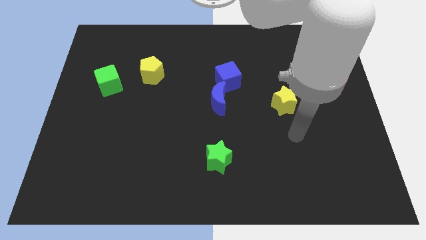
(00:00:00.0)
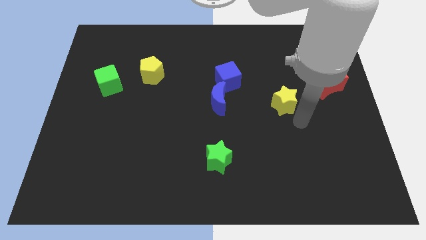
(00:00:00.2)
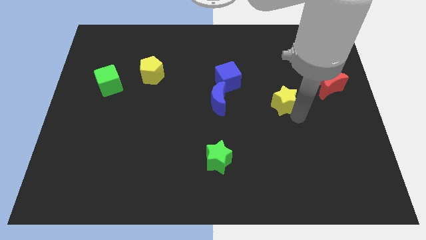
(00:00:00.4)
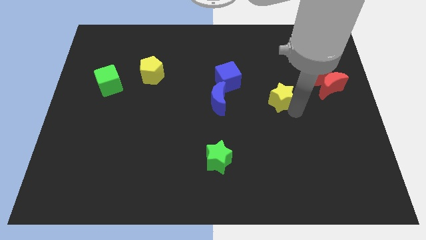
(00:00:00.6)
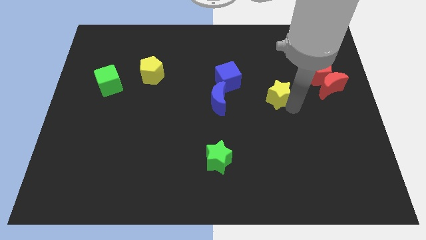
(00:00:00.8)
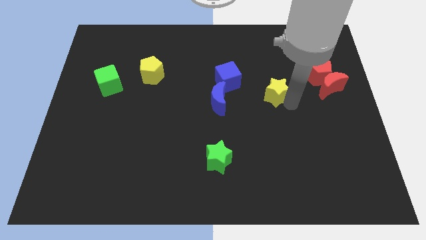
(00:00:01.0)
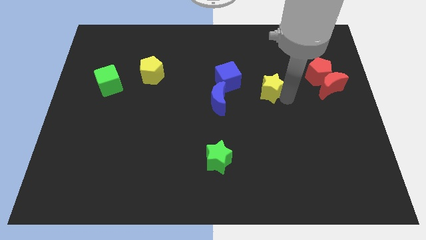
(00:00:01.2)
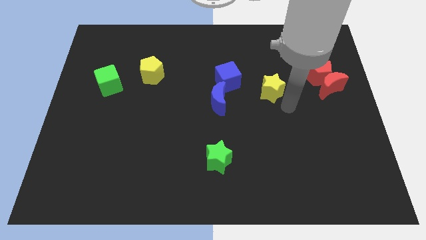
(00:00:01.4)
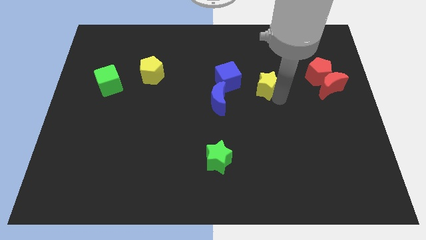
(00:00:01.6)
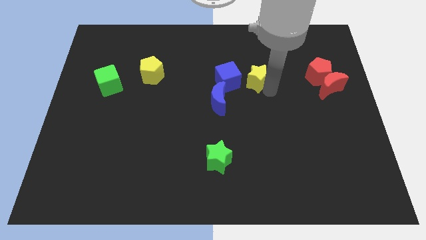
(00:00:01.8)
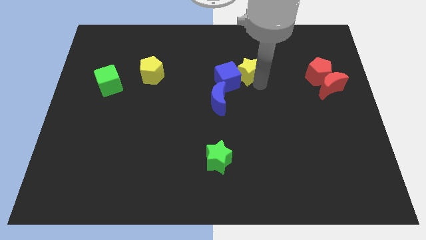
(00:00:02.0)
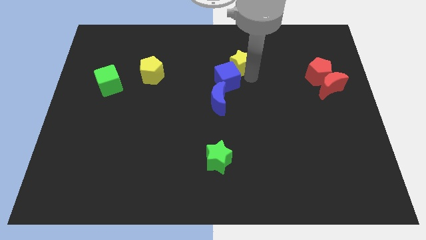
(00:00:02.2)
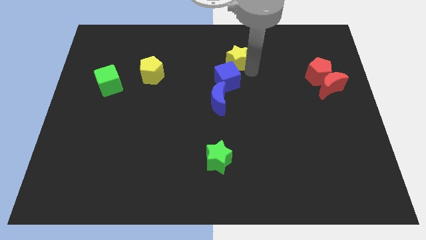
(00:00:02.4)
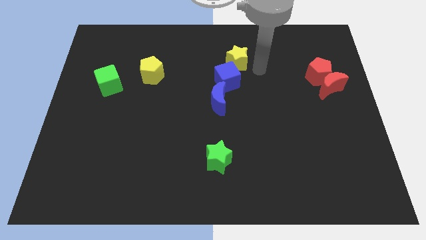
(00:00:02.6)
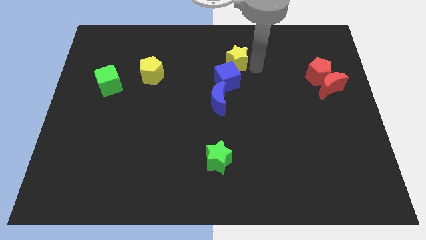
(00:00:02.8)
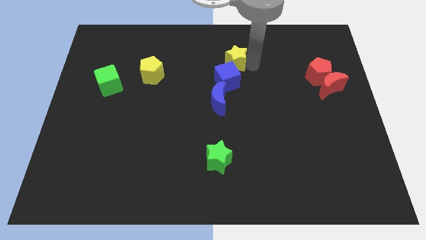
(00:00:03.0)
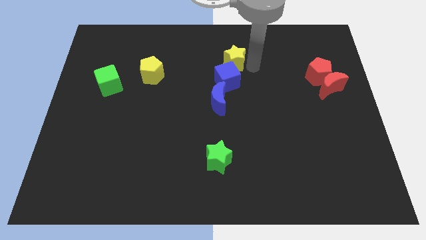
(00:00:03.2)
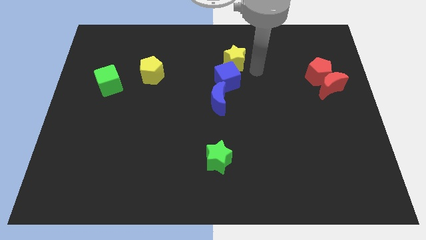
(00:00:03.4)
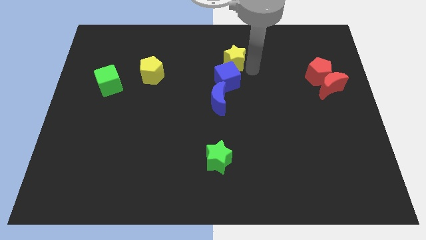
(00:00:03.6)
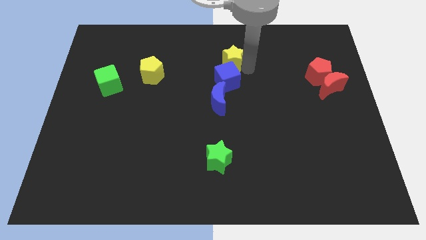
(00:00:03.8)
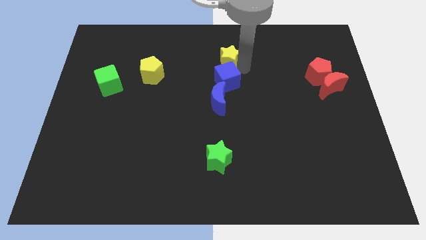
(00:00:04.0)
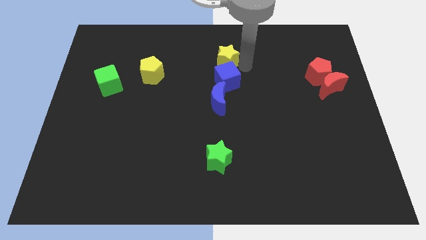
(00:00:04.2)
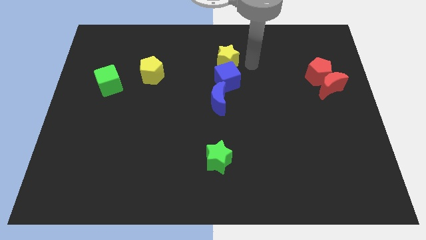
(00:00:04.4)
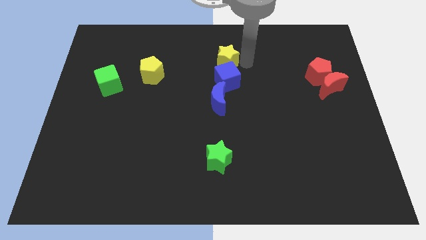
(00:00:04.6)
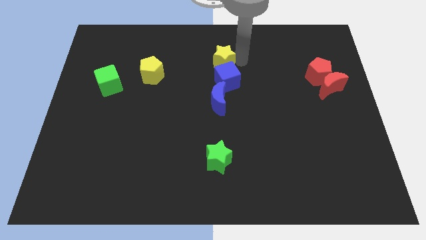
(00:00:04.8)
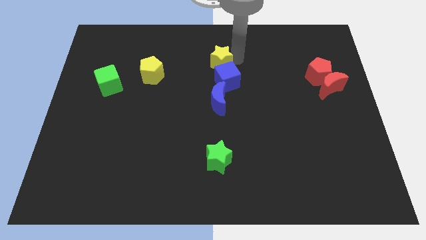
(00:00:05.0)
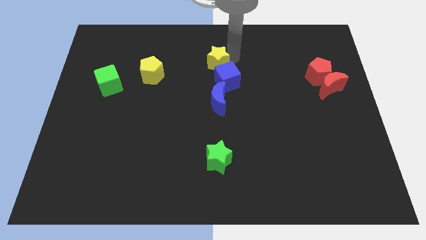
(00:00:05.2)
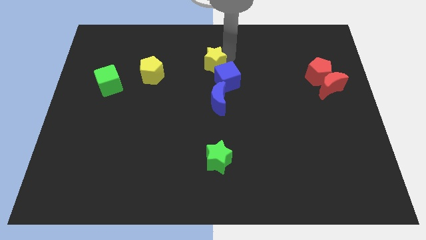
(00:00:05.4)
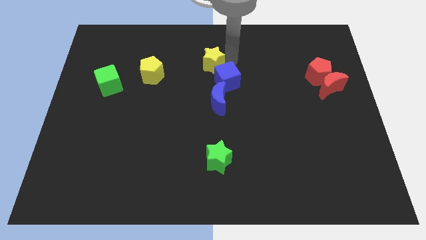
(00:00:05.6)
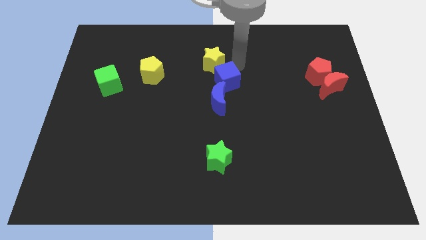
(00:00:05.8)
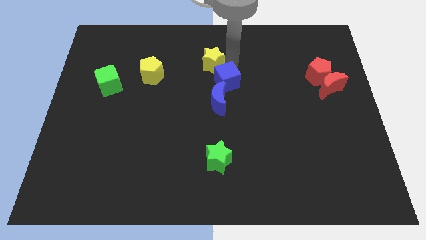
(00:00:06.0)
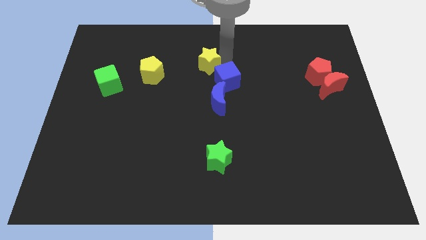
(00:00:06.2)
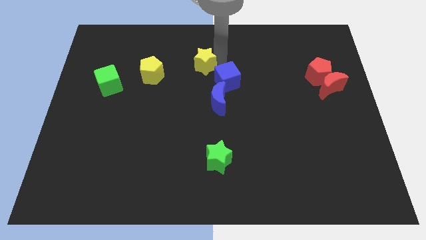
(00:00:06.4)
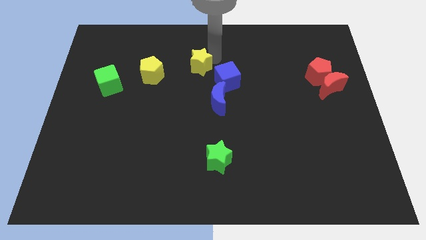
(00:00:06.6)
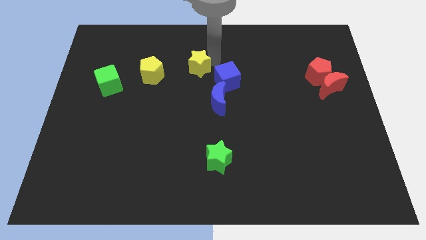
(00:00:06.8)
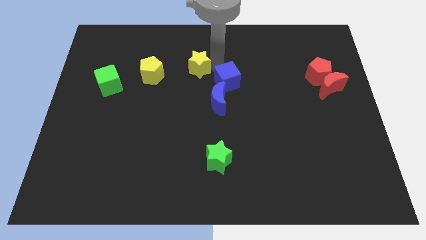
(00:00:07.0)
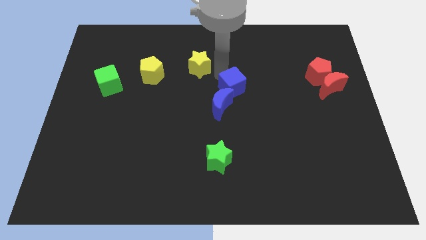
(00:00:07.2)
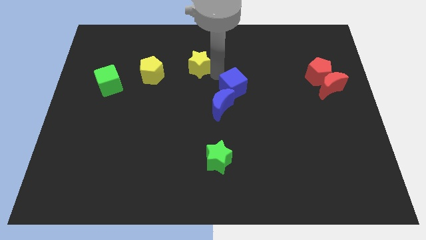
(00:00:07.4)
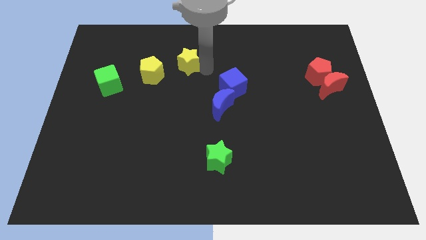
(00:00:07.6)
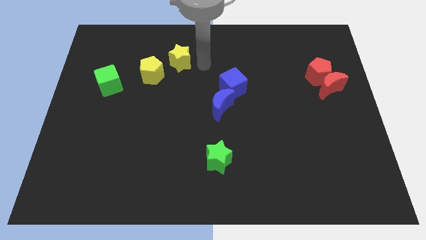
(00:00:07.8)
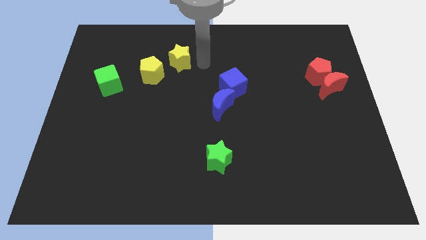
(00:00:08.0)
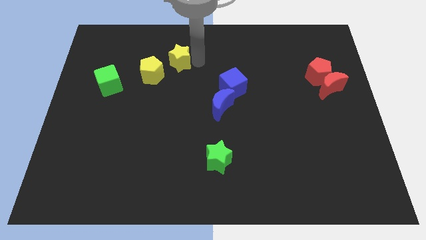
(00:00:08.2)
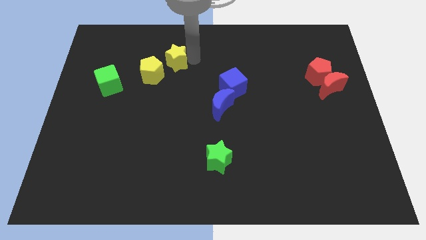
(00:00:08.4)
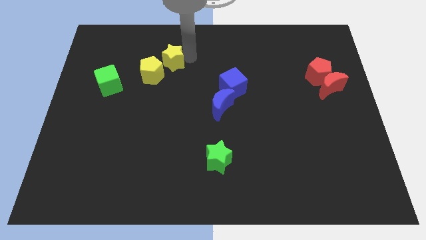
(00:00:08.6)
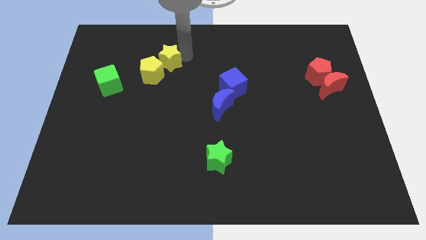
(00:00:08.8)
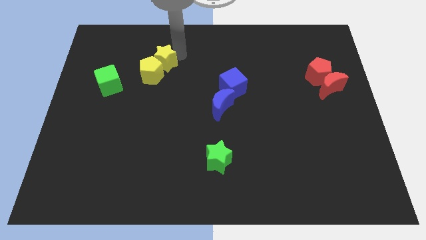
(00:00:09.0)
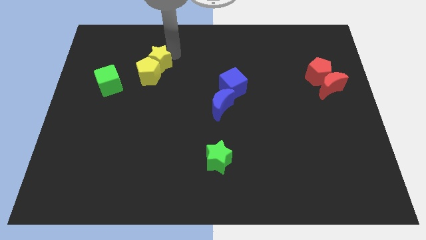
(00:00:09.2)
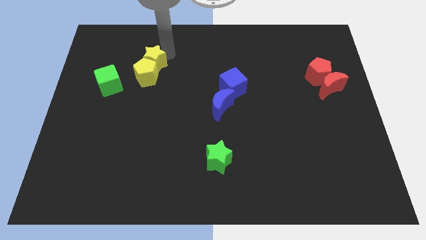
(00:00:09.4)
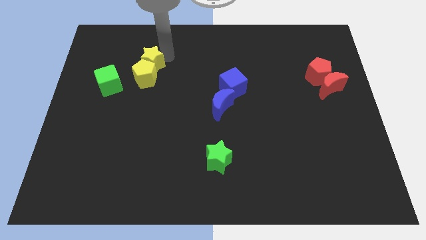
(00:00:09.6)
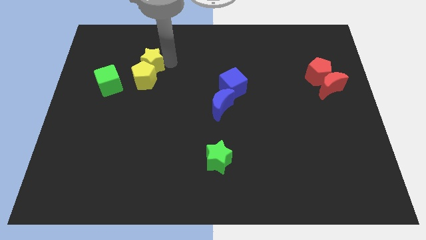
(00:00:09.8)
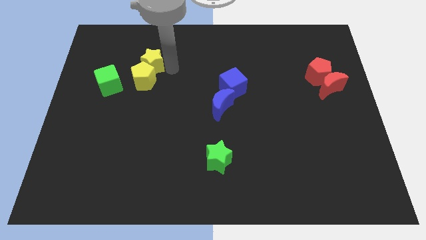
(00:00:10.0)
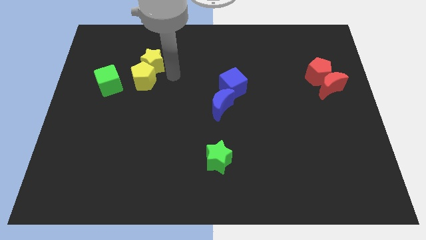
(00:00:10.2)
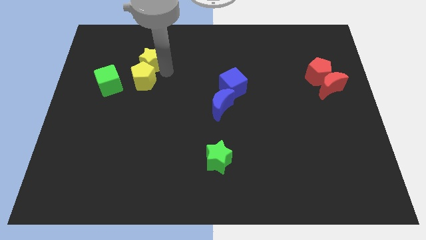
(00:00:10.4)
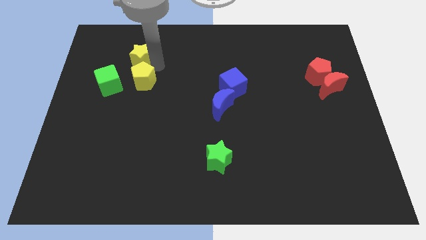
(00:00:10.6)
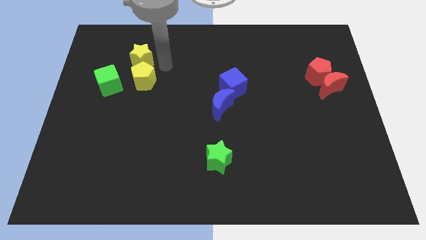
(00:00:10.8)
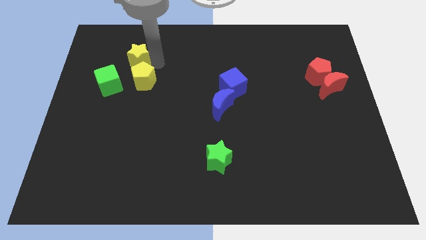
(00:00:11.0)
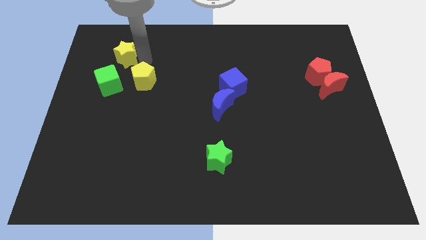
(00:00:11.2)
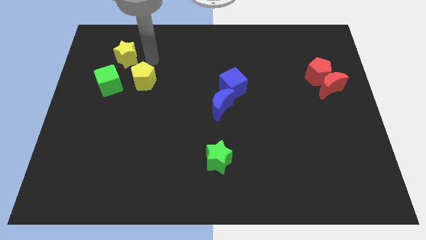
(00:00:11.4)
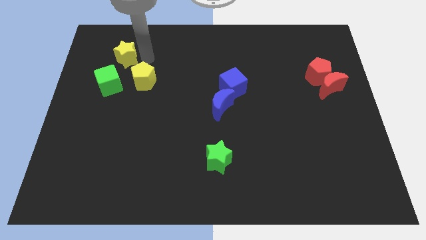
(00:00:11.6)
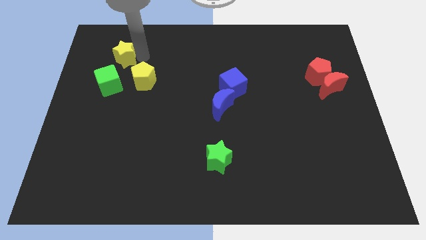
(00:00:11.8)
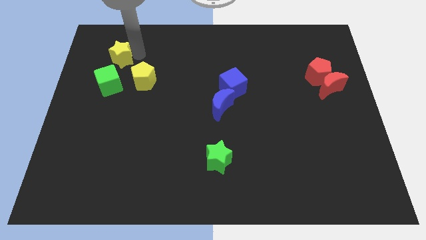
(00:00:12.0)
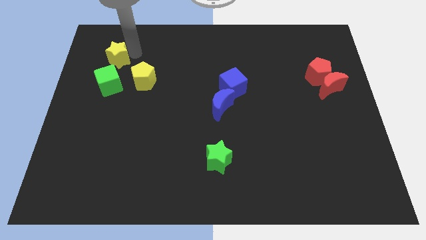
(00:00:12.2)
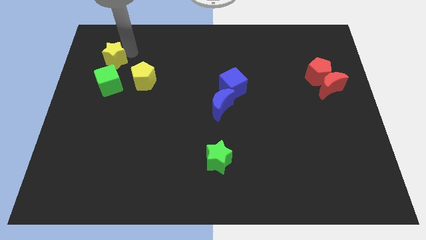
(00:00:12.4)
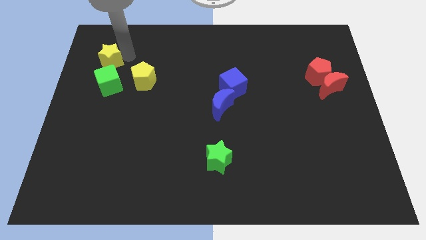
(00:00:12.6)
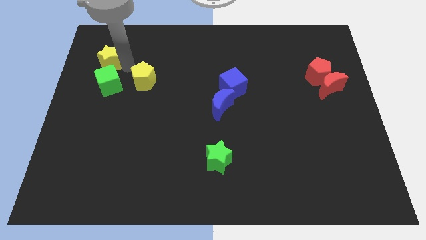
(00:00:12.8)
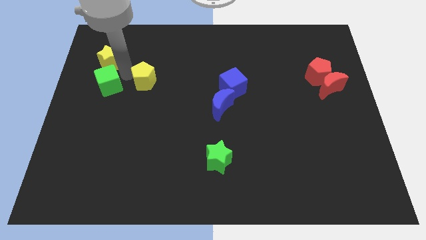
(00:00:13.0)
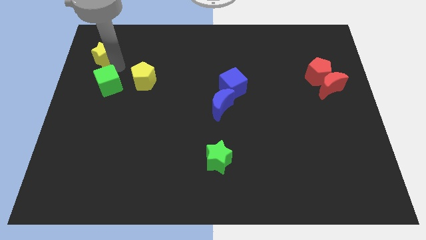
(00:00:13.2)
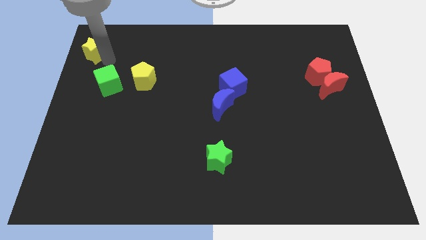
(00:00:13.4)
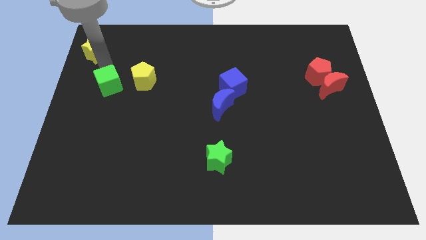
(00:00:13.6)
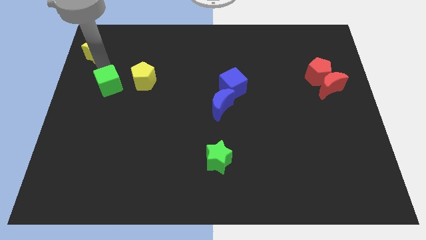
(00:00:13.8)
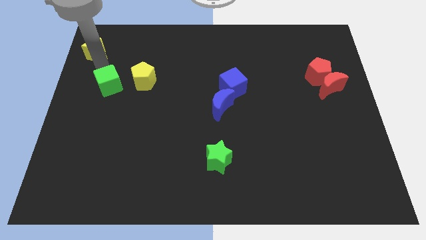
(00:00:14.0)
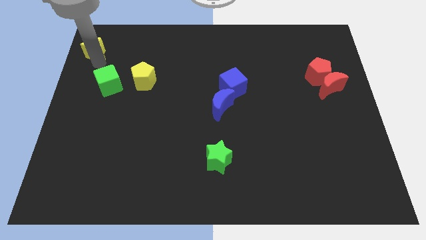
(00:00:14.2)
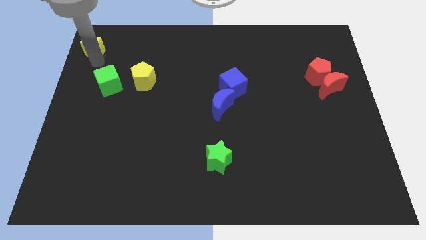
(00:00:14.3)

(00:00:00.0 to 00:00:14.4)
put the yellow star to the top left corner

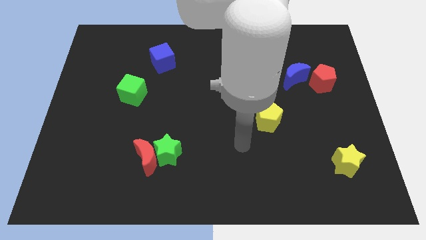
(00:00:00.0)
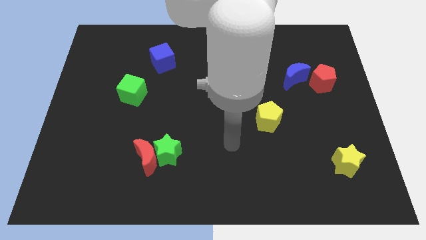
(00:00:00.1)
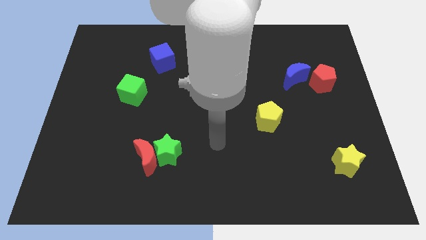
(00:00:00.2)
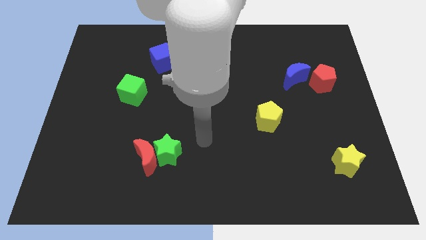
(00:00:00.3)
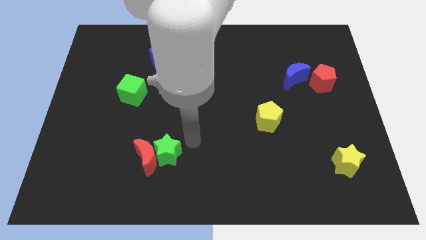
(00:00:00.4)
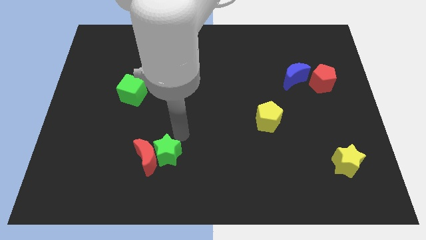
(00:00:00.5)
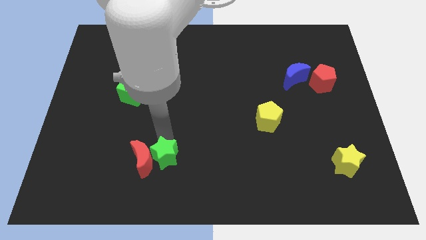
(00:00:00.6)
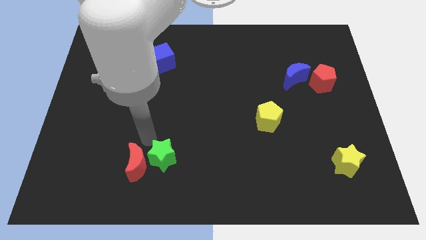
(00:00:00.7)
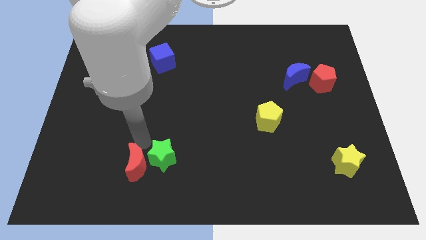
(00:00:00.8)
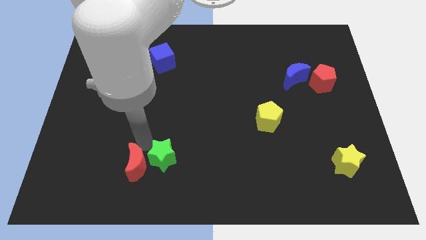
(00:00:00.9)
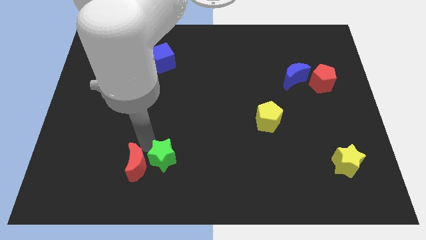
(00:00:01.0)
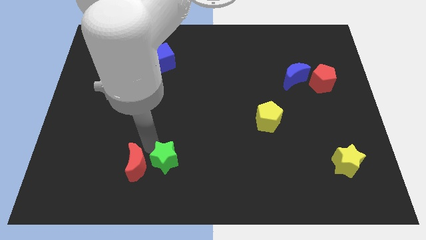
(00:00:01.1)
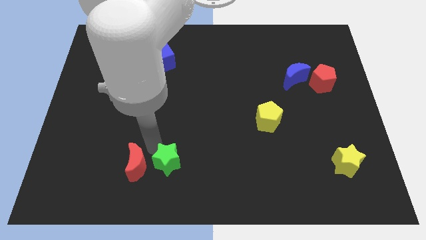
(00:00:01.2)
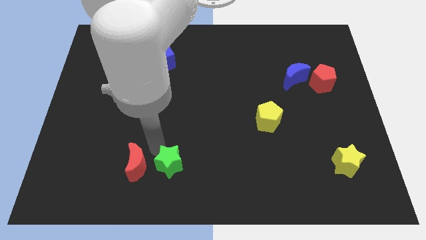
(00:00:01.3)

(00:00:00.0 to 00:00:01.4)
move the green star to the bottom side
